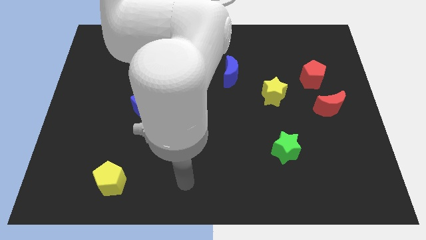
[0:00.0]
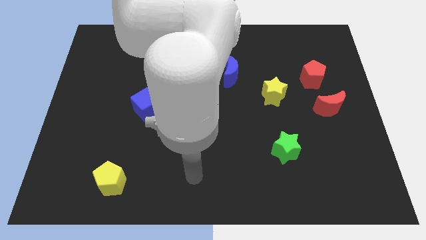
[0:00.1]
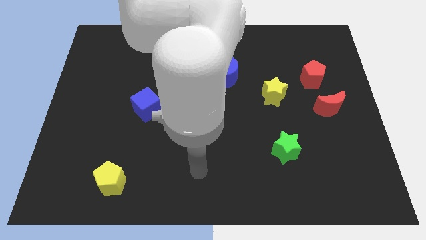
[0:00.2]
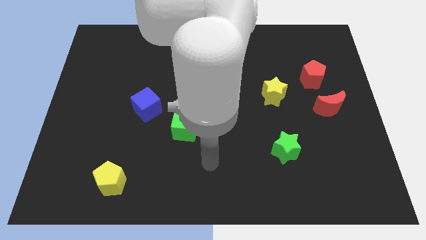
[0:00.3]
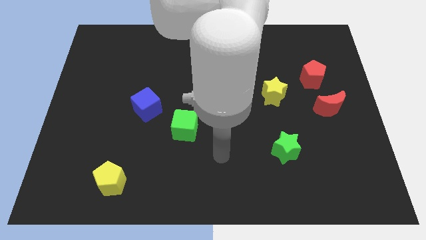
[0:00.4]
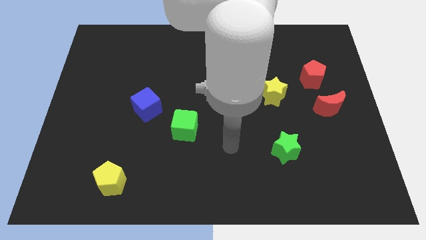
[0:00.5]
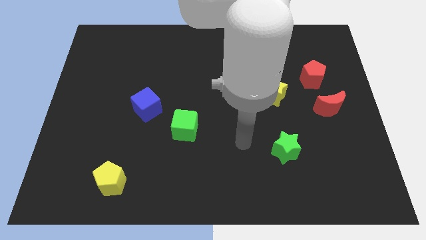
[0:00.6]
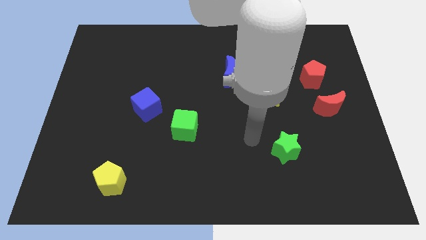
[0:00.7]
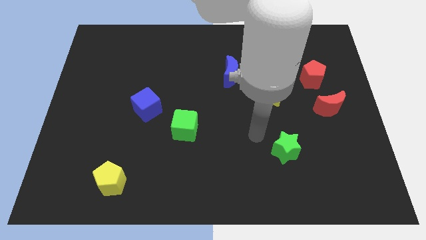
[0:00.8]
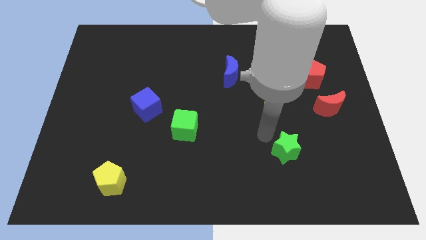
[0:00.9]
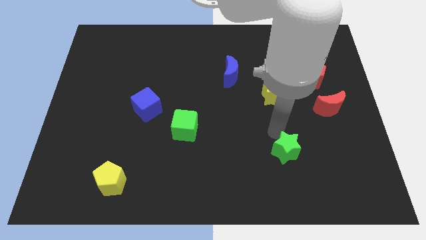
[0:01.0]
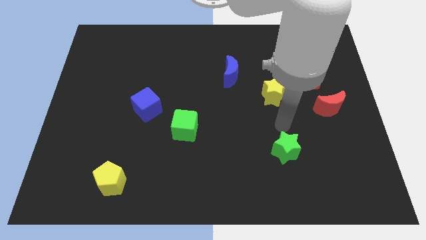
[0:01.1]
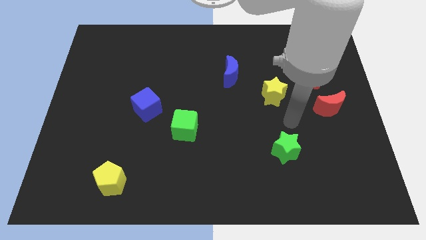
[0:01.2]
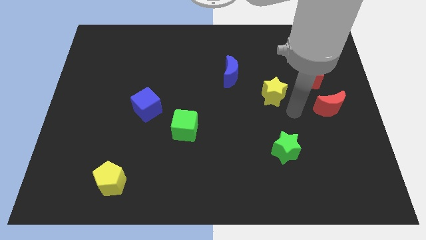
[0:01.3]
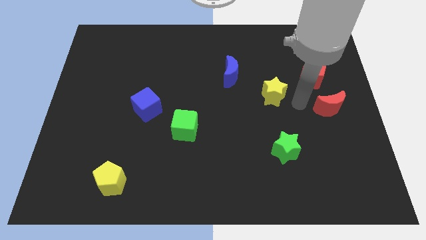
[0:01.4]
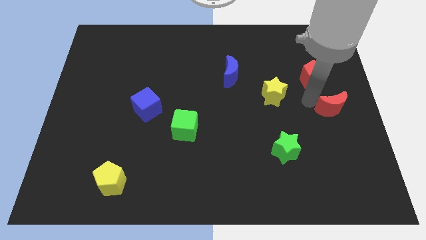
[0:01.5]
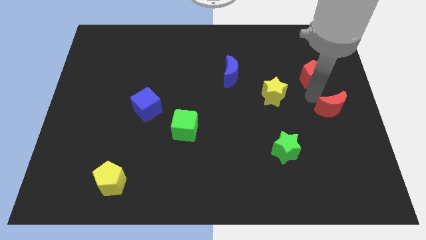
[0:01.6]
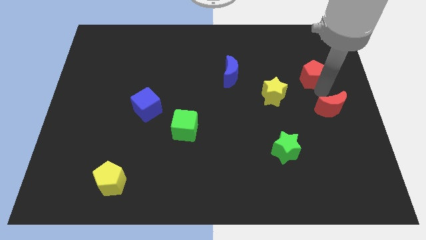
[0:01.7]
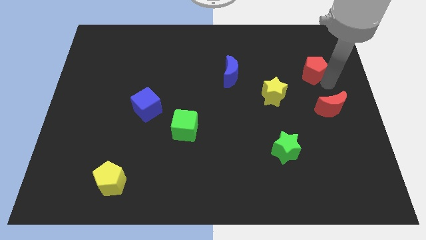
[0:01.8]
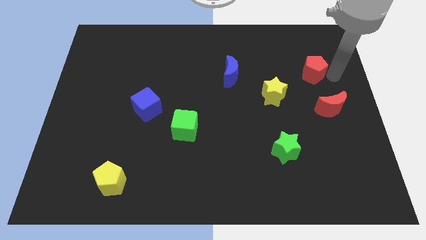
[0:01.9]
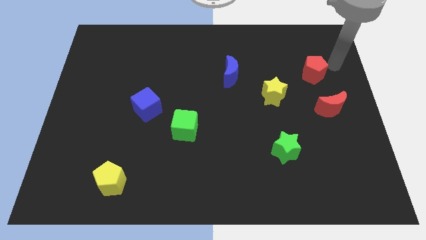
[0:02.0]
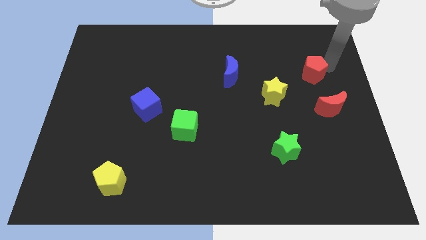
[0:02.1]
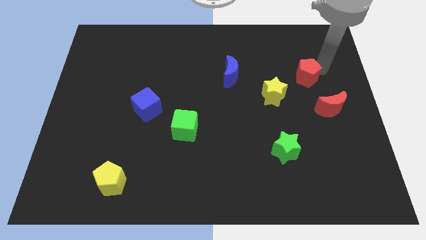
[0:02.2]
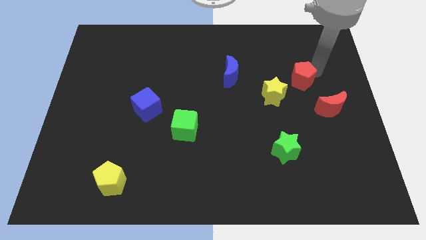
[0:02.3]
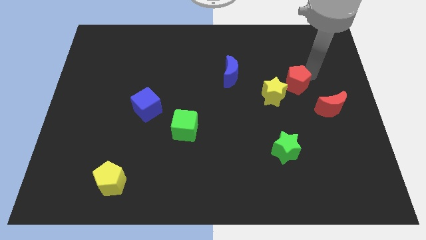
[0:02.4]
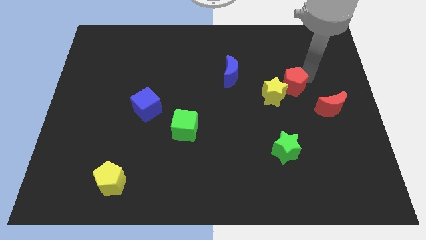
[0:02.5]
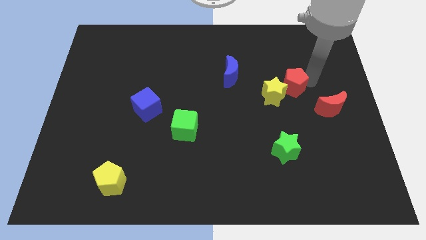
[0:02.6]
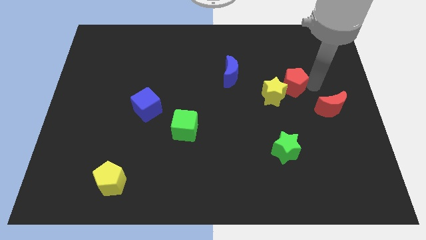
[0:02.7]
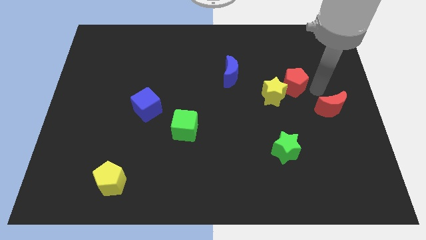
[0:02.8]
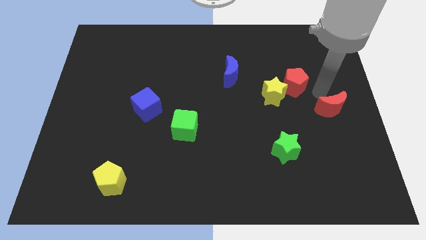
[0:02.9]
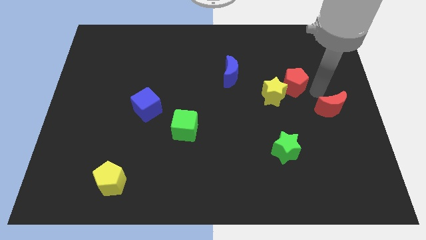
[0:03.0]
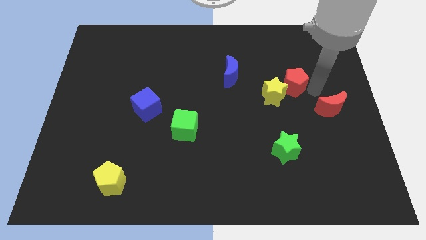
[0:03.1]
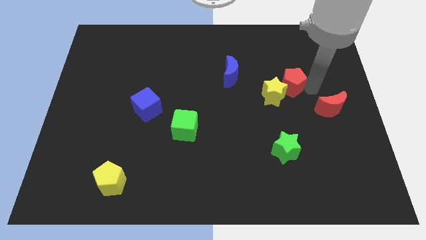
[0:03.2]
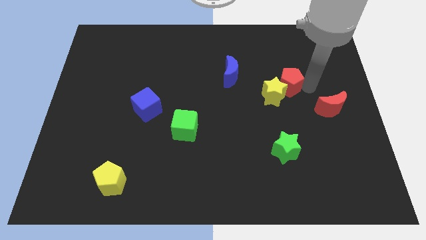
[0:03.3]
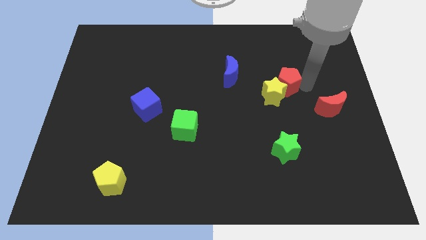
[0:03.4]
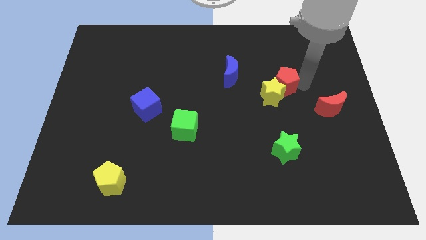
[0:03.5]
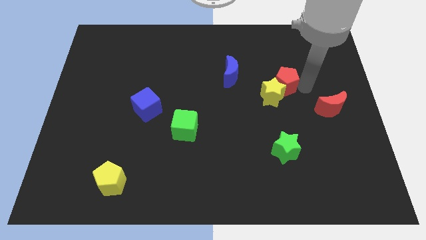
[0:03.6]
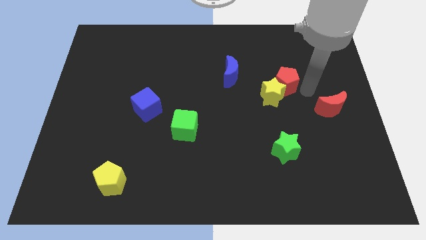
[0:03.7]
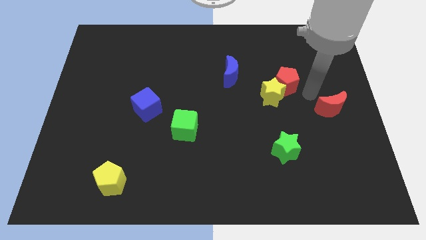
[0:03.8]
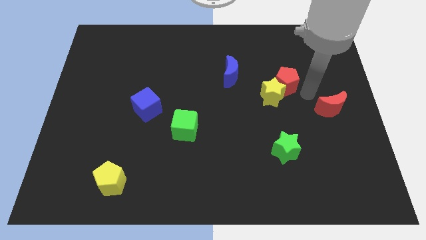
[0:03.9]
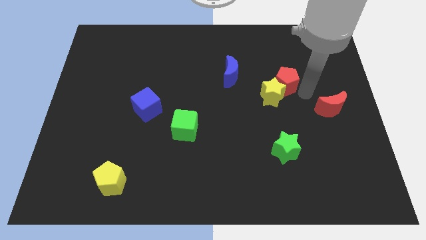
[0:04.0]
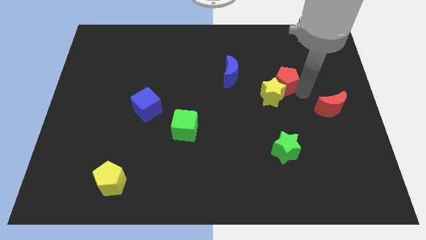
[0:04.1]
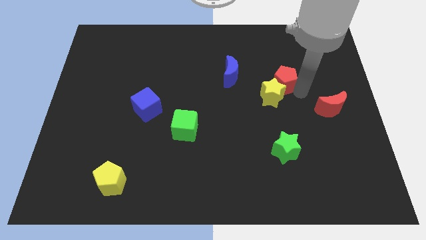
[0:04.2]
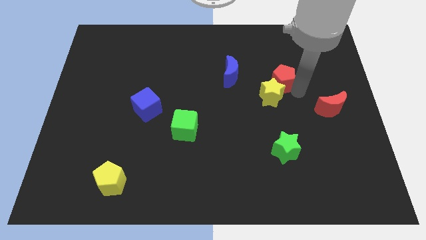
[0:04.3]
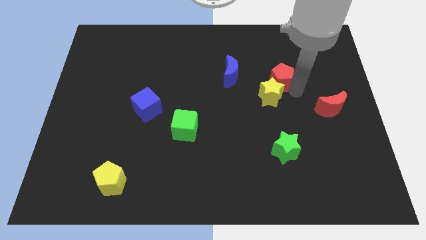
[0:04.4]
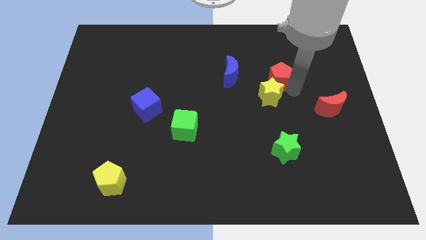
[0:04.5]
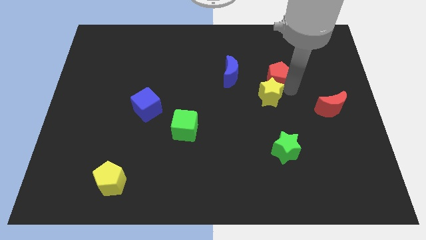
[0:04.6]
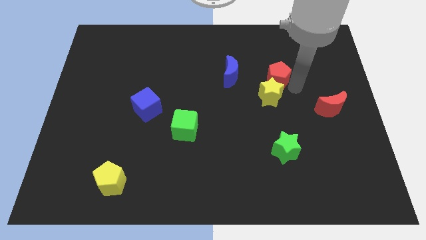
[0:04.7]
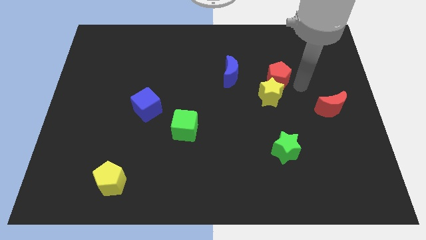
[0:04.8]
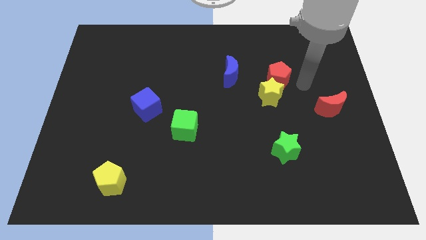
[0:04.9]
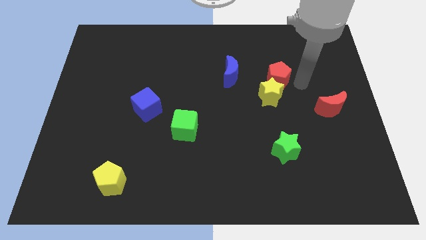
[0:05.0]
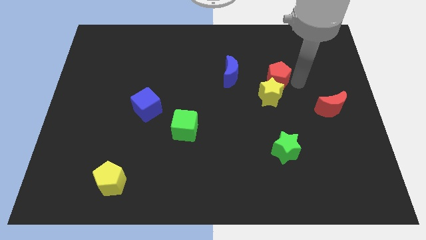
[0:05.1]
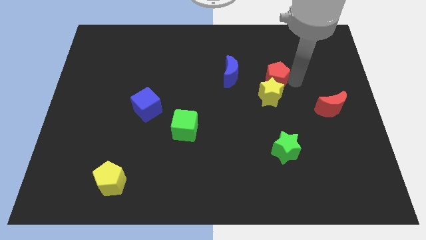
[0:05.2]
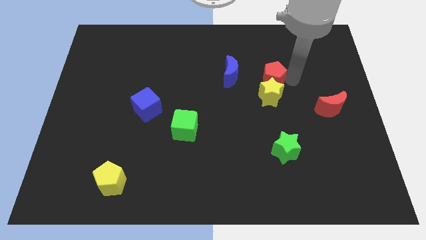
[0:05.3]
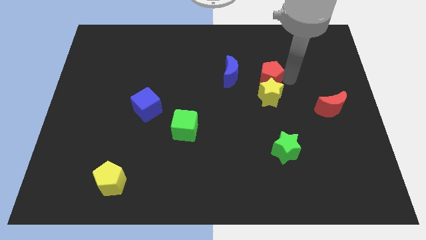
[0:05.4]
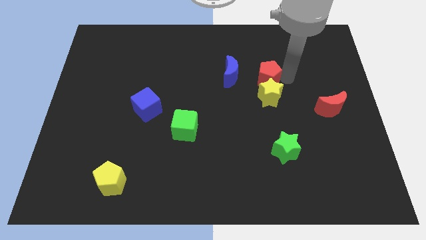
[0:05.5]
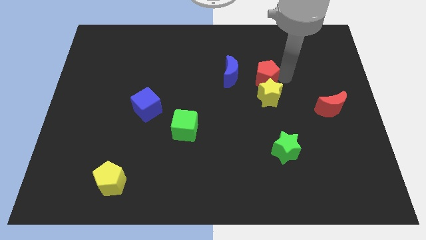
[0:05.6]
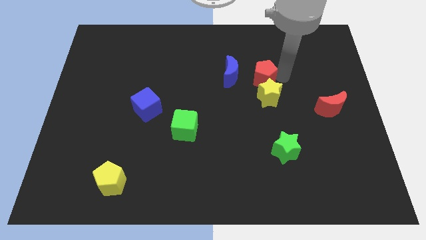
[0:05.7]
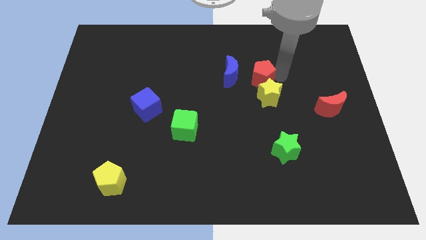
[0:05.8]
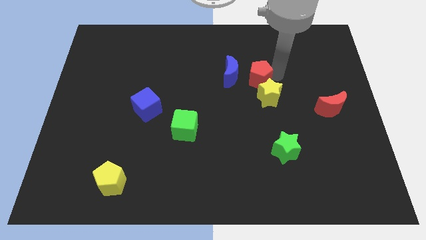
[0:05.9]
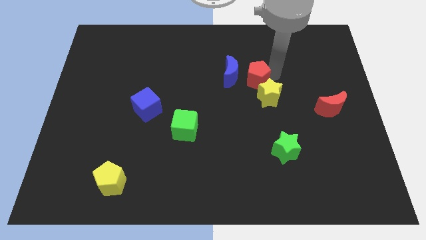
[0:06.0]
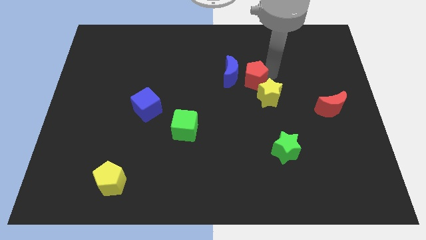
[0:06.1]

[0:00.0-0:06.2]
put the red pentagon to the blue moon

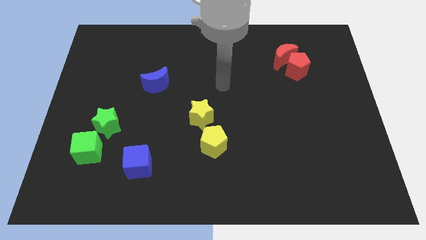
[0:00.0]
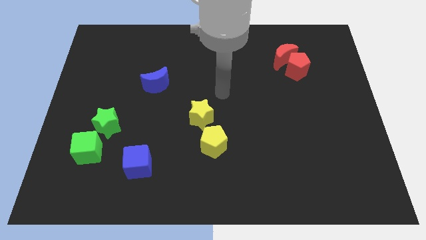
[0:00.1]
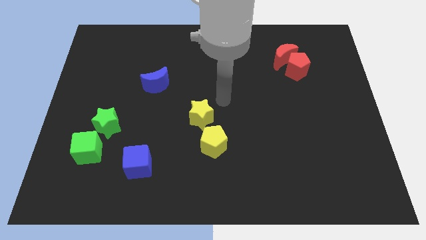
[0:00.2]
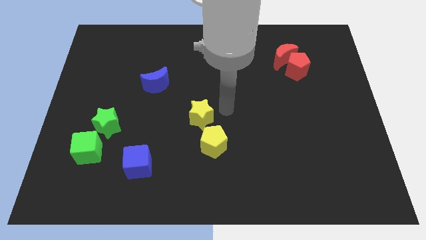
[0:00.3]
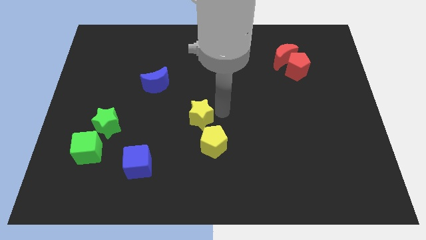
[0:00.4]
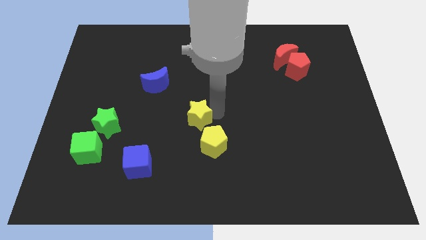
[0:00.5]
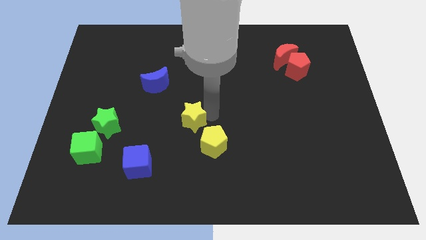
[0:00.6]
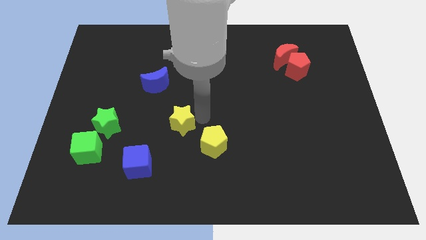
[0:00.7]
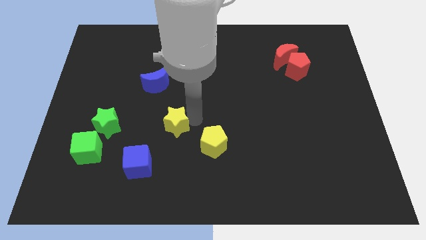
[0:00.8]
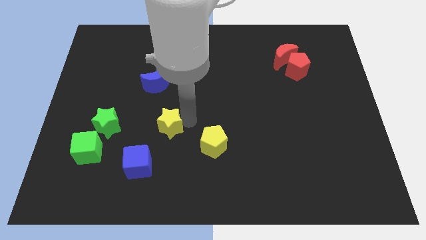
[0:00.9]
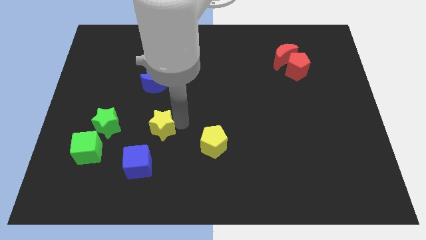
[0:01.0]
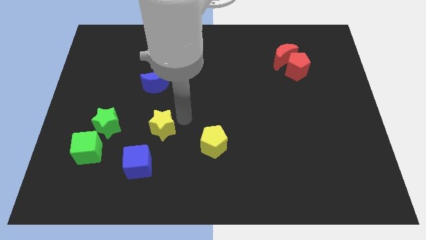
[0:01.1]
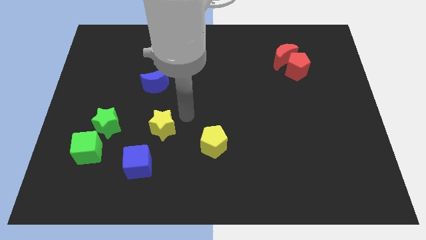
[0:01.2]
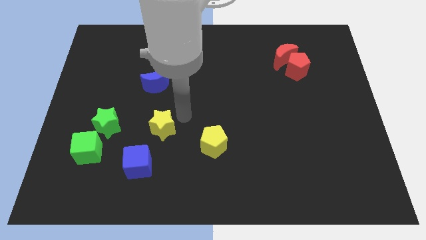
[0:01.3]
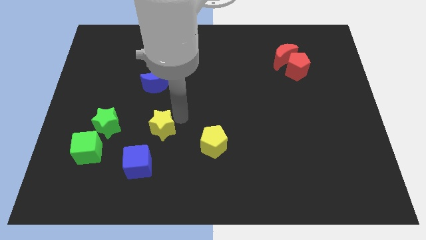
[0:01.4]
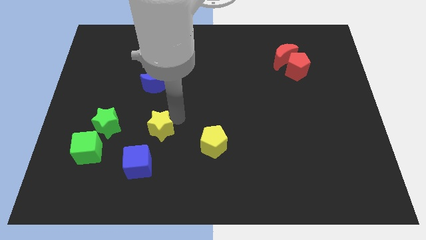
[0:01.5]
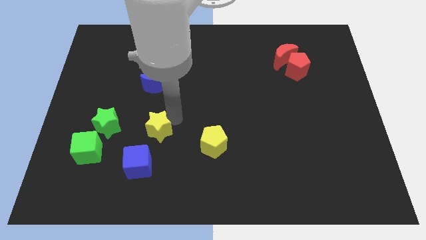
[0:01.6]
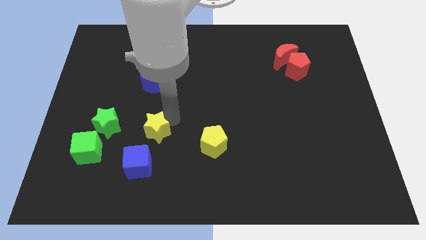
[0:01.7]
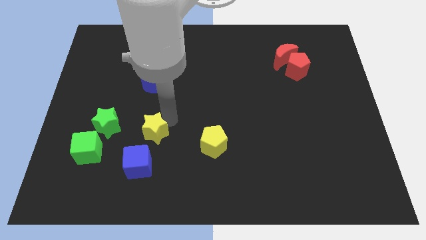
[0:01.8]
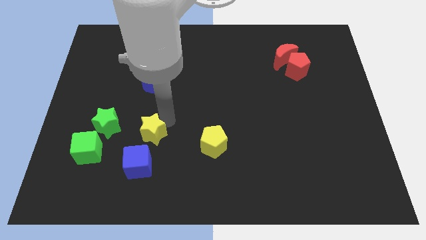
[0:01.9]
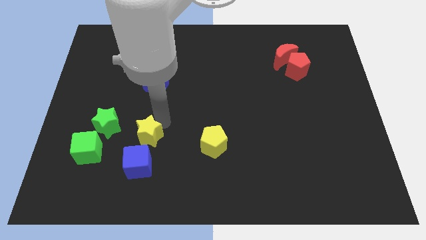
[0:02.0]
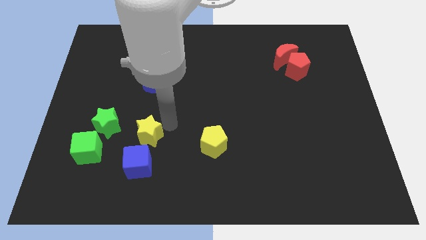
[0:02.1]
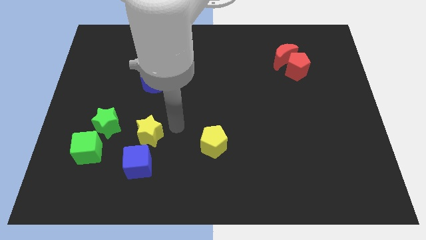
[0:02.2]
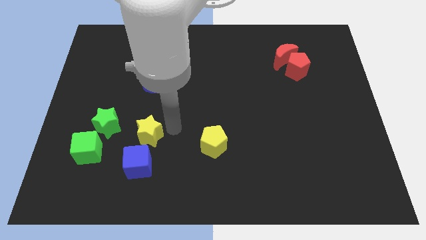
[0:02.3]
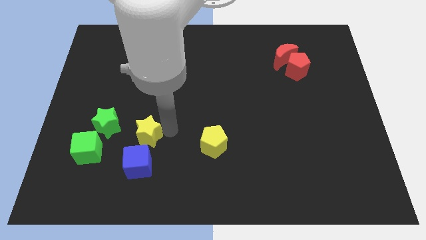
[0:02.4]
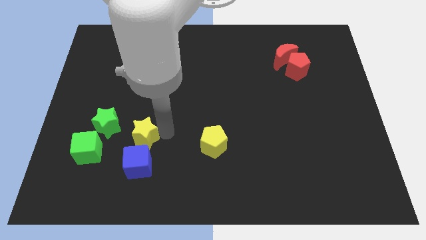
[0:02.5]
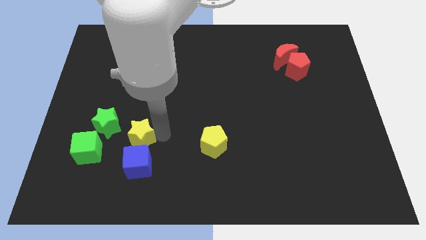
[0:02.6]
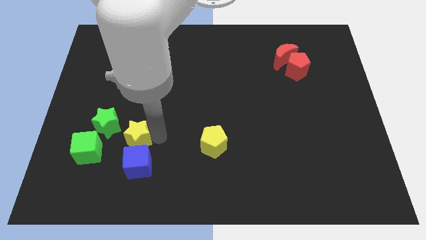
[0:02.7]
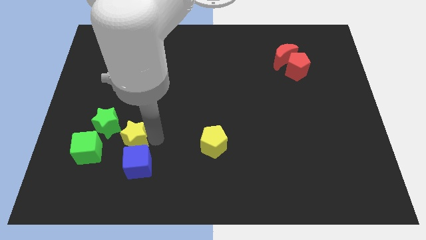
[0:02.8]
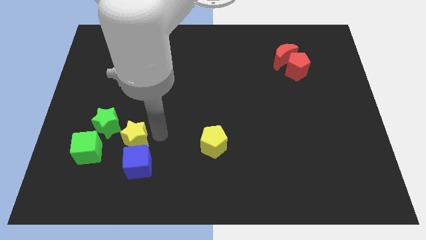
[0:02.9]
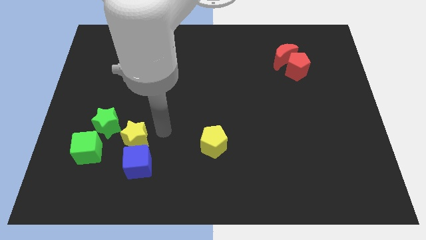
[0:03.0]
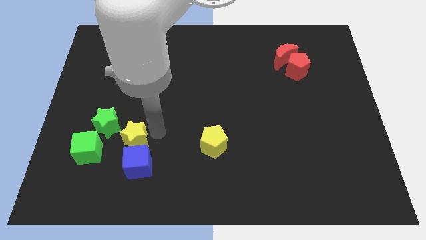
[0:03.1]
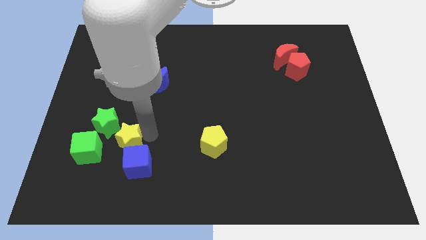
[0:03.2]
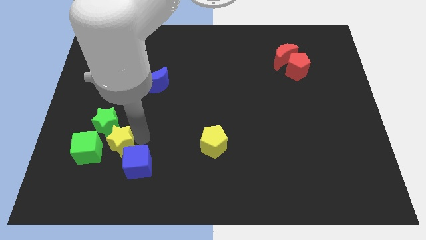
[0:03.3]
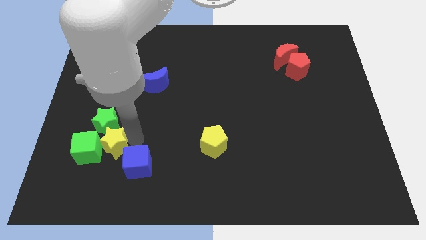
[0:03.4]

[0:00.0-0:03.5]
move the yellow star close to the green cube
